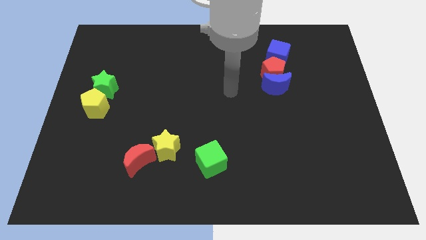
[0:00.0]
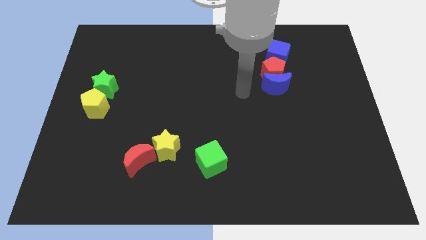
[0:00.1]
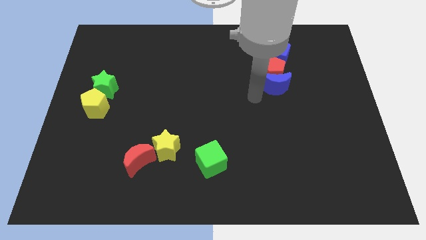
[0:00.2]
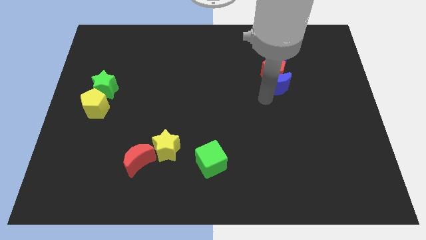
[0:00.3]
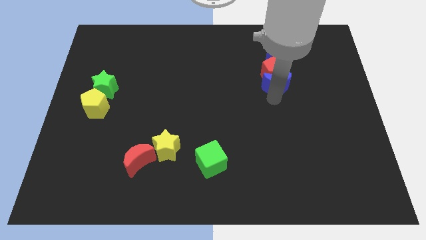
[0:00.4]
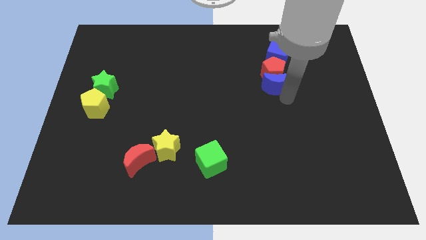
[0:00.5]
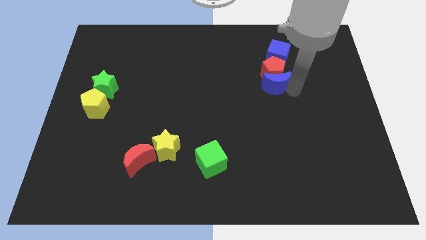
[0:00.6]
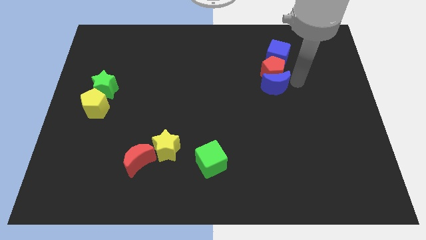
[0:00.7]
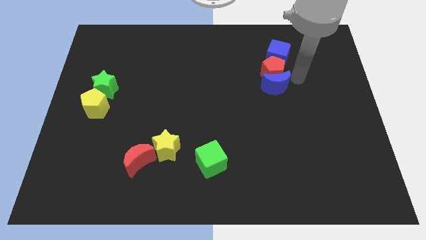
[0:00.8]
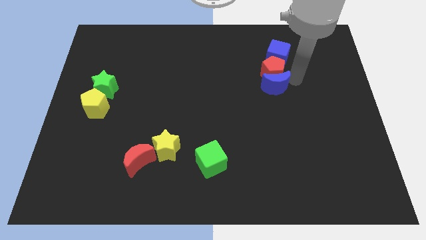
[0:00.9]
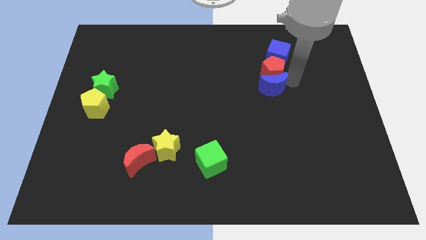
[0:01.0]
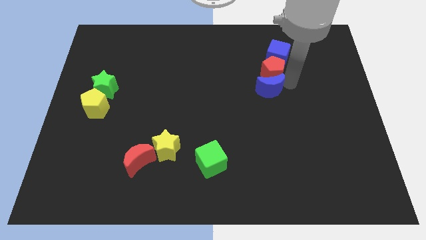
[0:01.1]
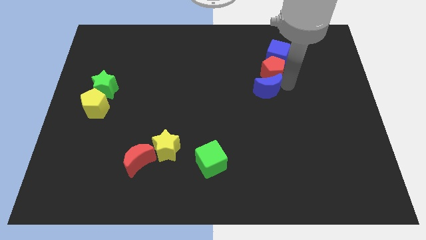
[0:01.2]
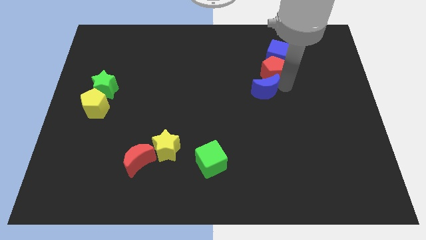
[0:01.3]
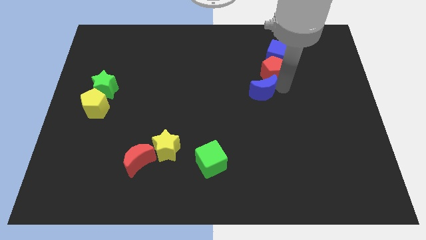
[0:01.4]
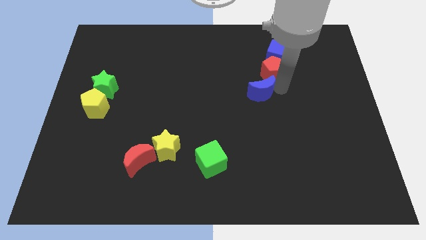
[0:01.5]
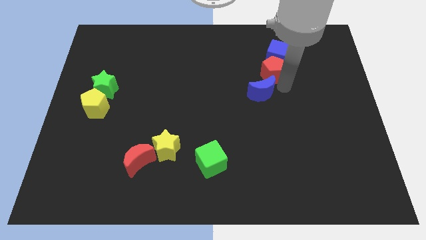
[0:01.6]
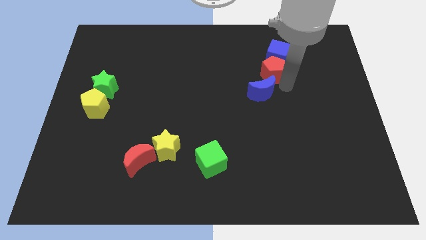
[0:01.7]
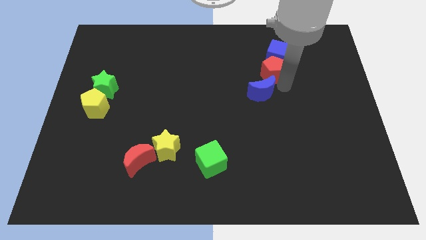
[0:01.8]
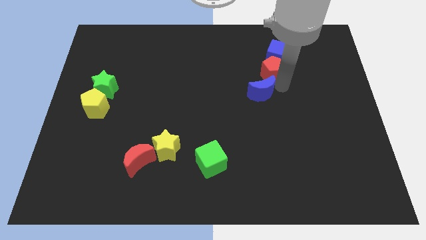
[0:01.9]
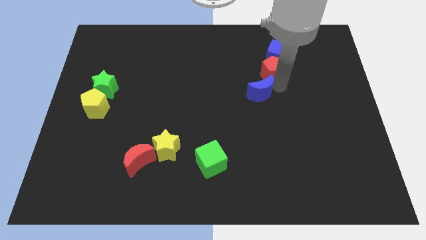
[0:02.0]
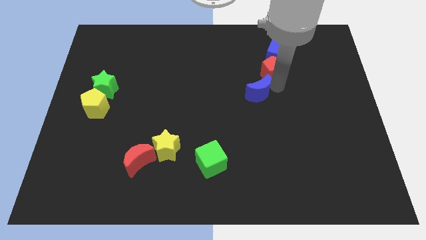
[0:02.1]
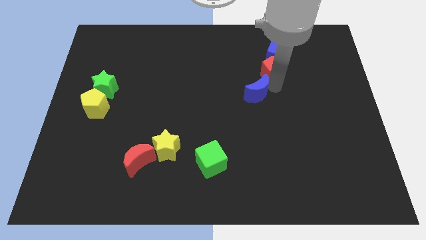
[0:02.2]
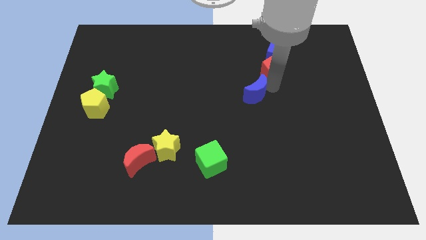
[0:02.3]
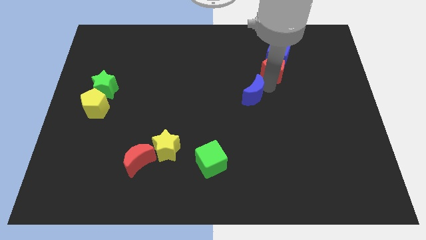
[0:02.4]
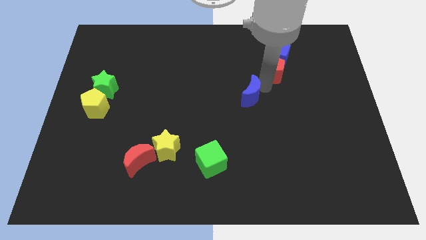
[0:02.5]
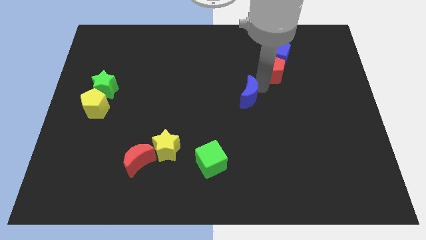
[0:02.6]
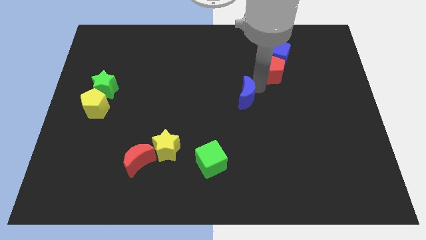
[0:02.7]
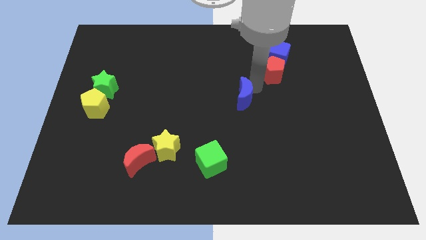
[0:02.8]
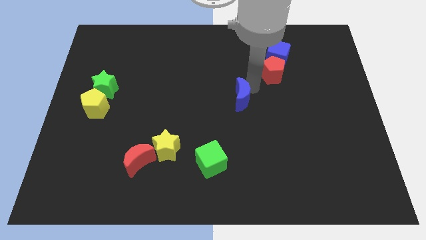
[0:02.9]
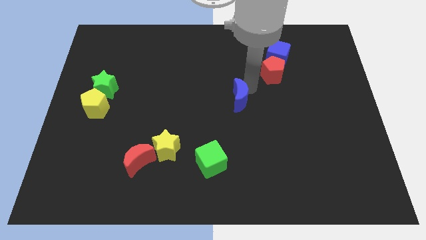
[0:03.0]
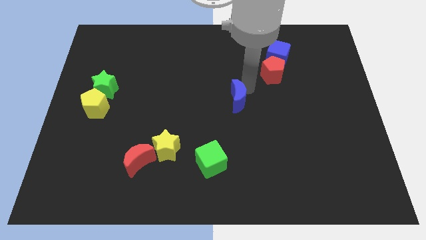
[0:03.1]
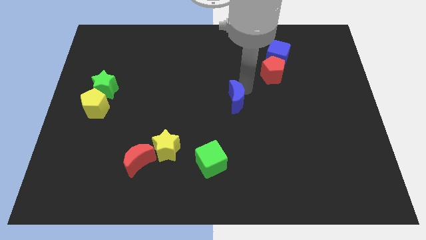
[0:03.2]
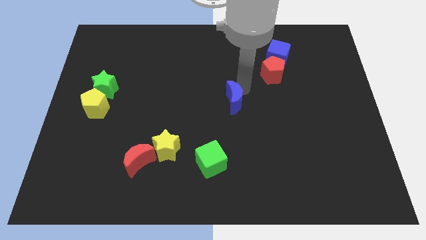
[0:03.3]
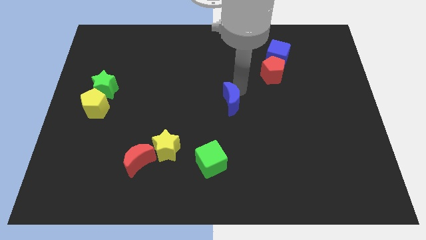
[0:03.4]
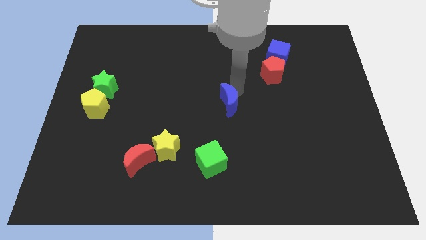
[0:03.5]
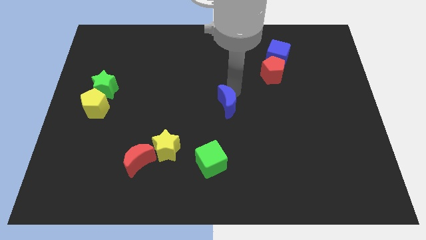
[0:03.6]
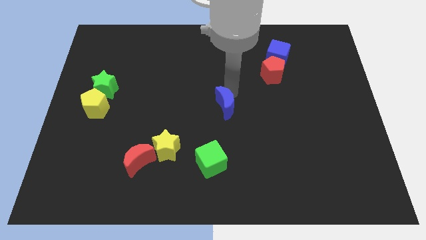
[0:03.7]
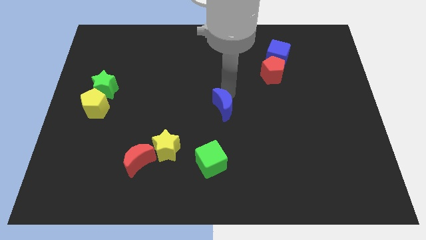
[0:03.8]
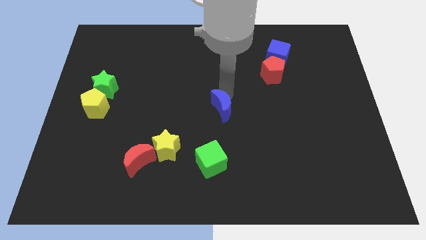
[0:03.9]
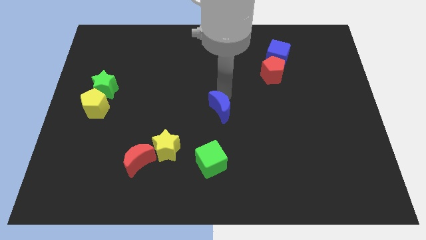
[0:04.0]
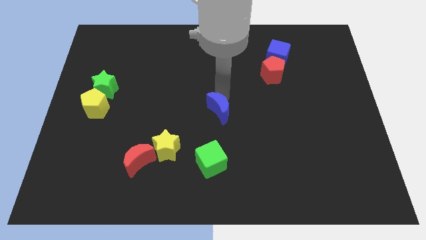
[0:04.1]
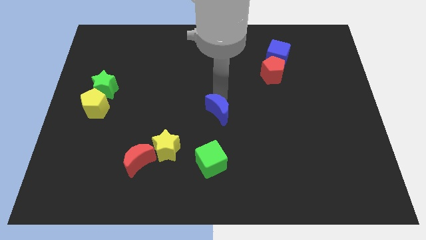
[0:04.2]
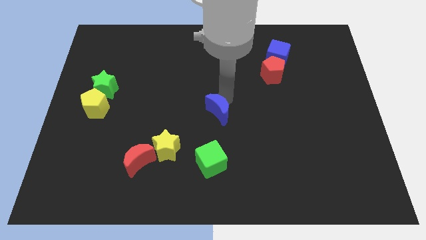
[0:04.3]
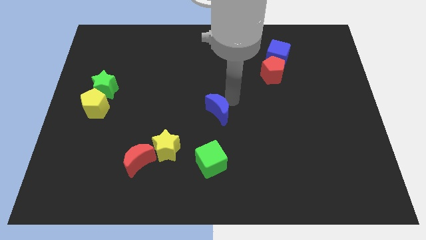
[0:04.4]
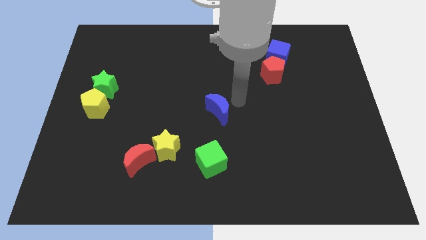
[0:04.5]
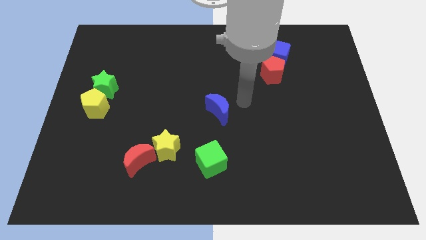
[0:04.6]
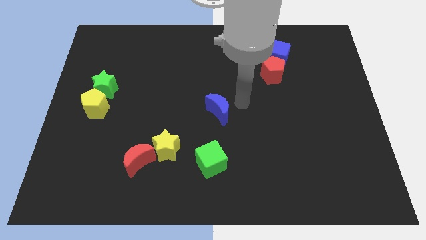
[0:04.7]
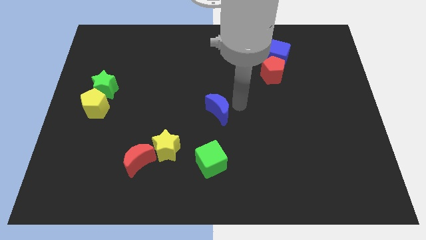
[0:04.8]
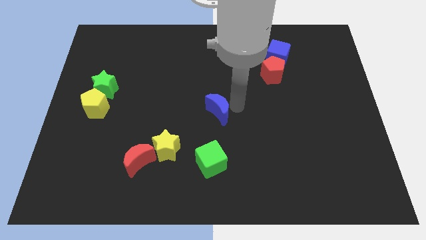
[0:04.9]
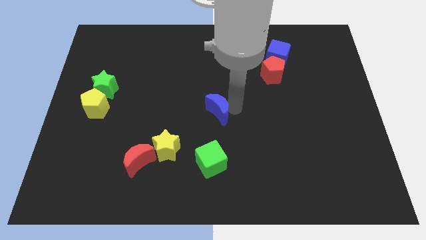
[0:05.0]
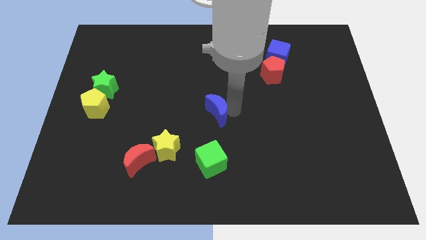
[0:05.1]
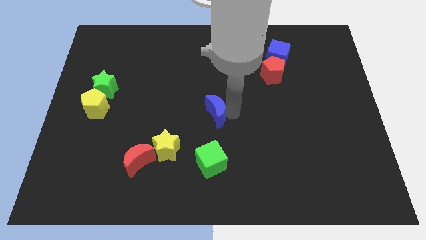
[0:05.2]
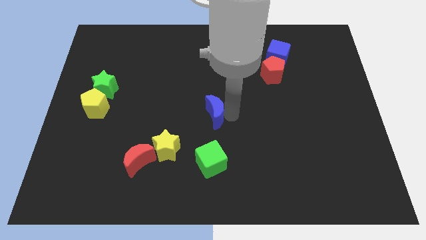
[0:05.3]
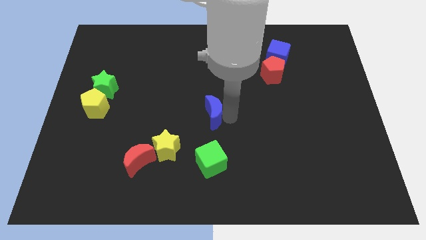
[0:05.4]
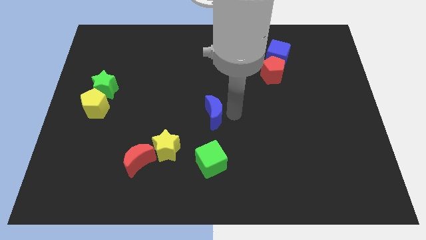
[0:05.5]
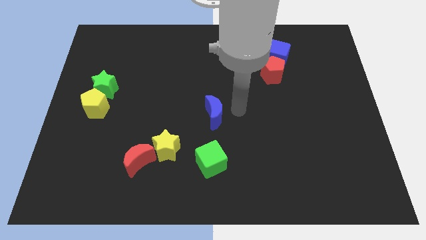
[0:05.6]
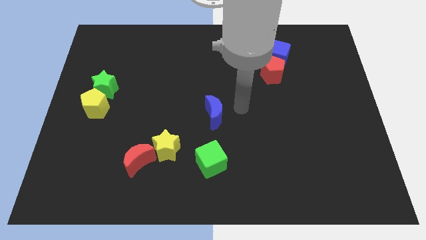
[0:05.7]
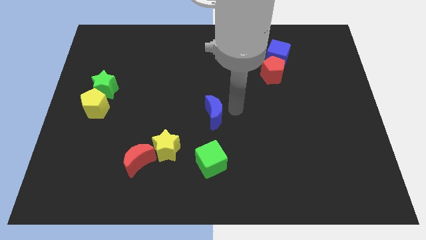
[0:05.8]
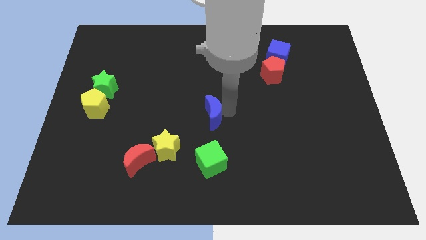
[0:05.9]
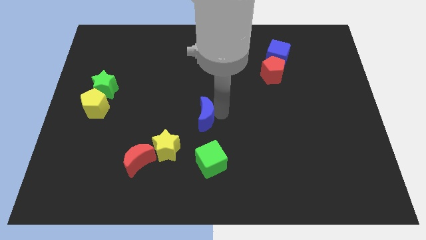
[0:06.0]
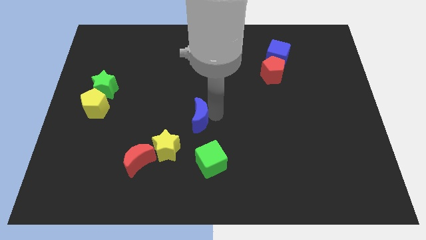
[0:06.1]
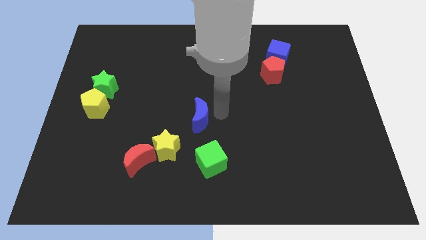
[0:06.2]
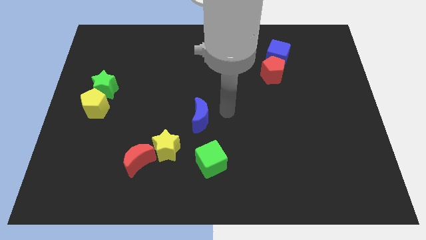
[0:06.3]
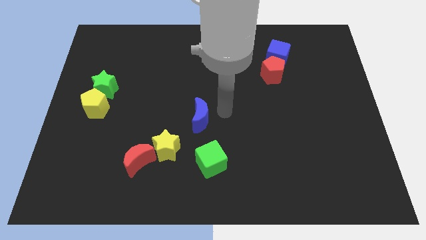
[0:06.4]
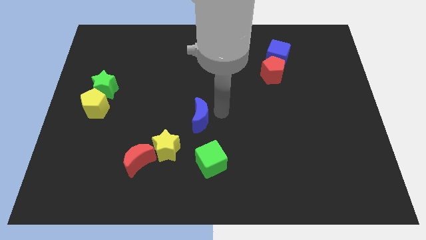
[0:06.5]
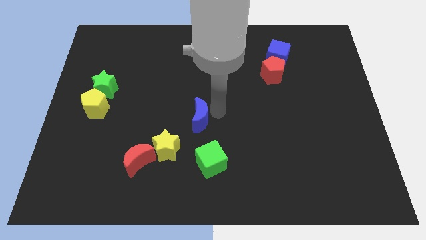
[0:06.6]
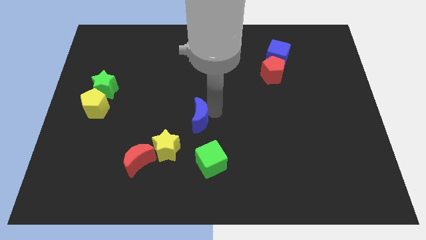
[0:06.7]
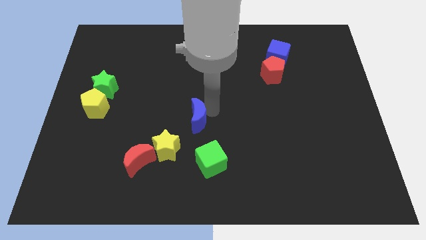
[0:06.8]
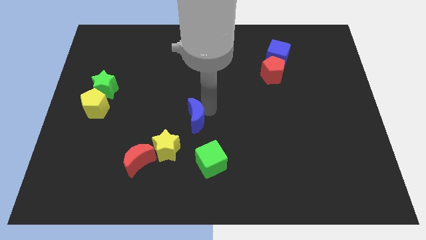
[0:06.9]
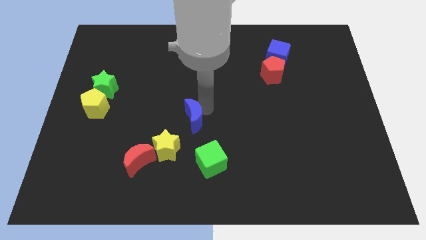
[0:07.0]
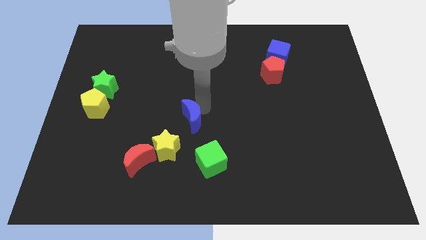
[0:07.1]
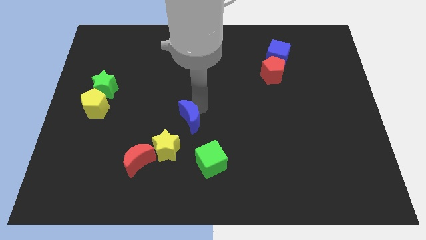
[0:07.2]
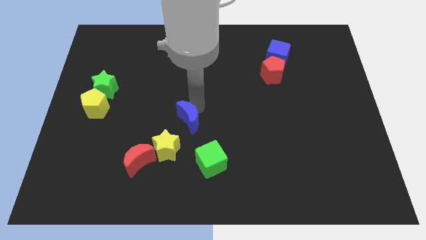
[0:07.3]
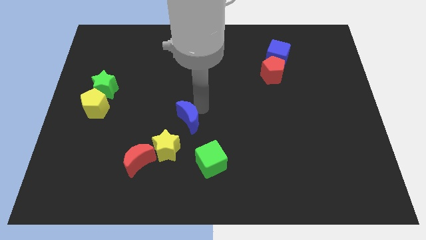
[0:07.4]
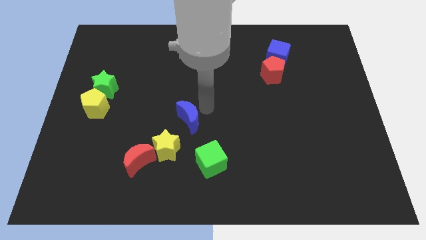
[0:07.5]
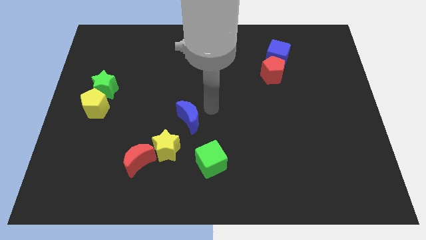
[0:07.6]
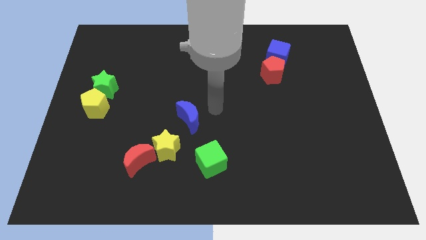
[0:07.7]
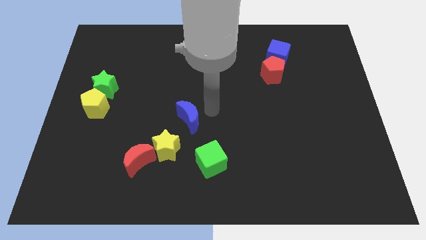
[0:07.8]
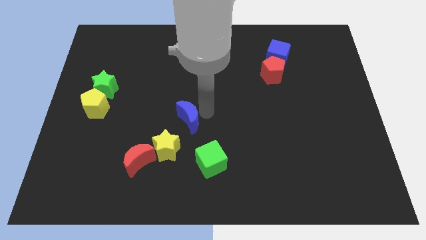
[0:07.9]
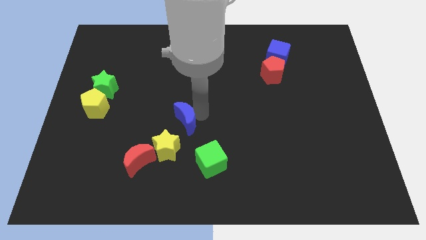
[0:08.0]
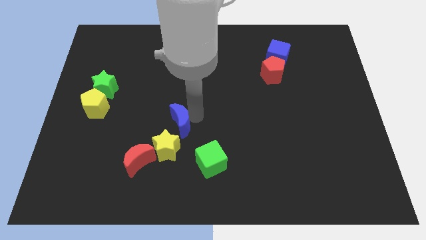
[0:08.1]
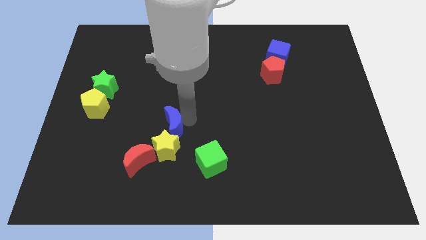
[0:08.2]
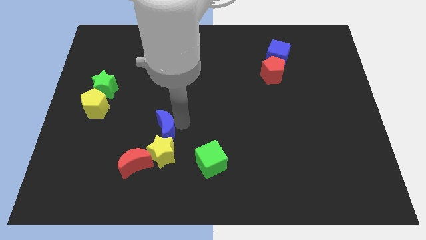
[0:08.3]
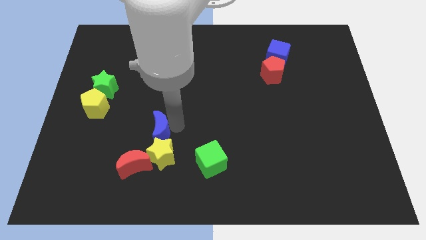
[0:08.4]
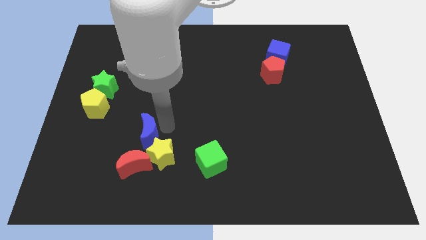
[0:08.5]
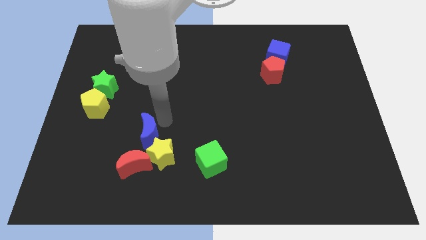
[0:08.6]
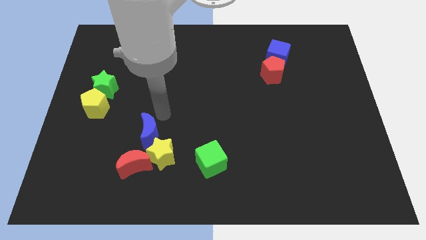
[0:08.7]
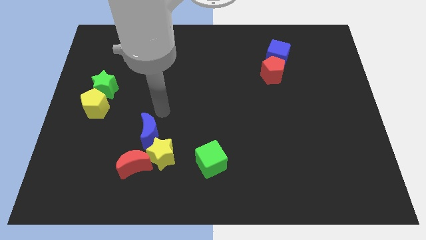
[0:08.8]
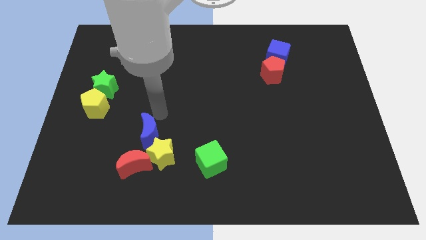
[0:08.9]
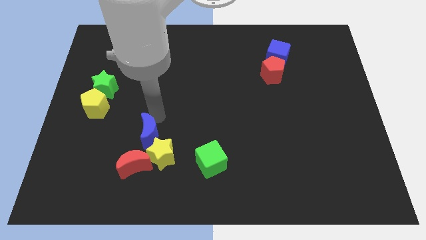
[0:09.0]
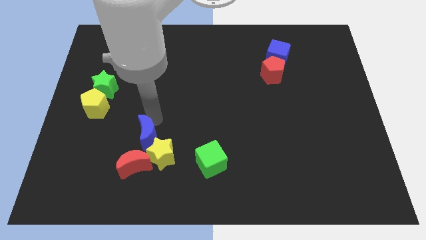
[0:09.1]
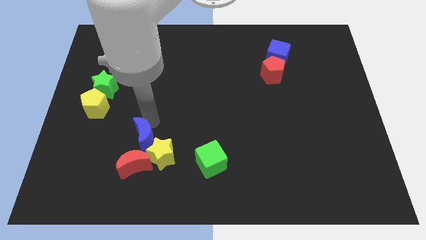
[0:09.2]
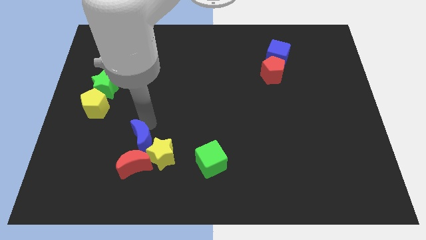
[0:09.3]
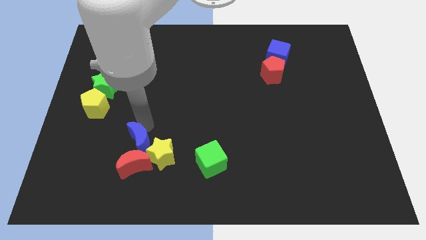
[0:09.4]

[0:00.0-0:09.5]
move the blue moon next to the red moon
